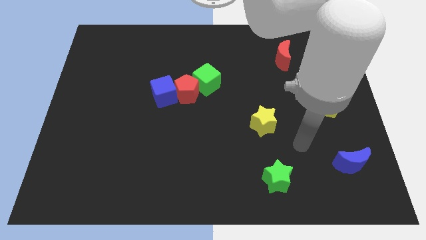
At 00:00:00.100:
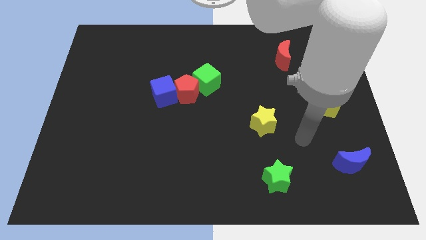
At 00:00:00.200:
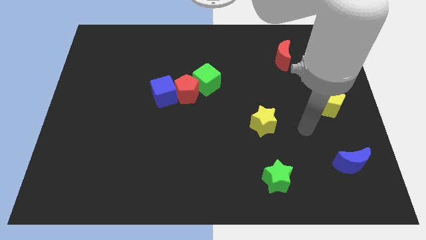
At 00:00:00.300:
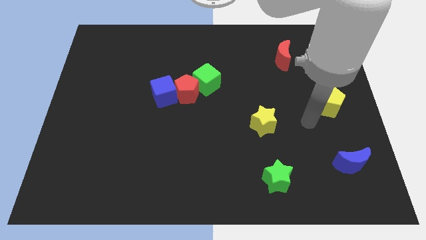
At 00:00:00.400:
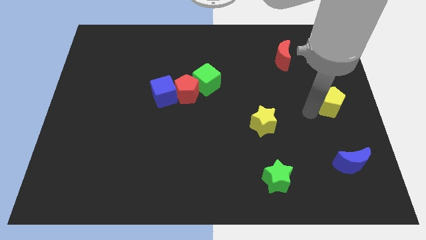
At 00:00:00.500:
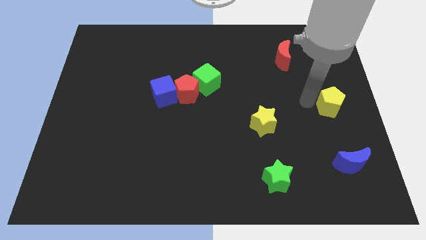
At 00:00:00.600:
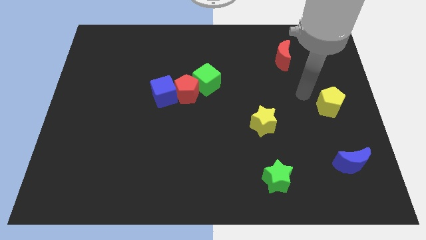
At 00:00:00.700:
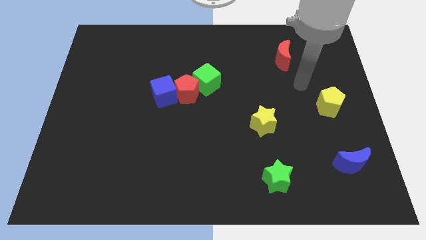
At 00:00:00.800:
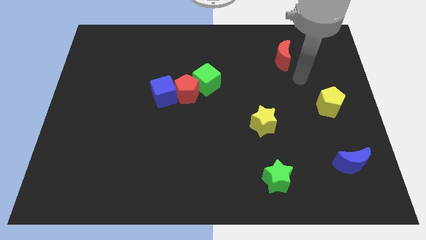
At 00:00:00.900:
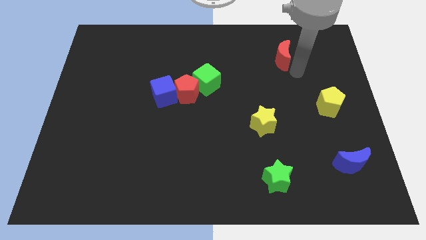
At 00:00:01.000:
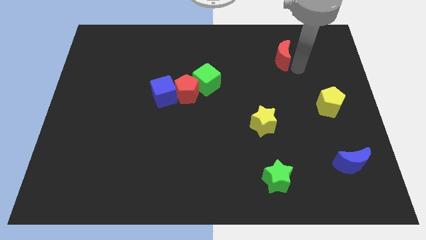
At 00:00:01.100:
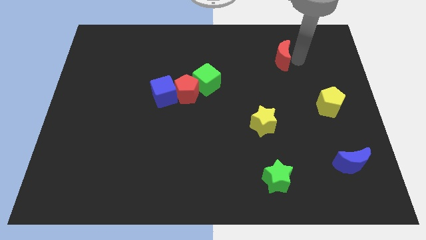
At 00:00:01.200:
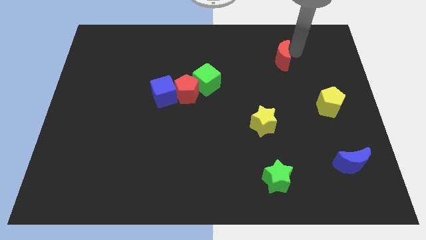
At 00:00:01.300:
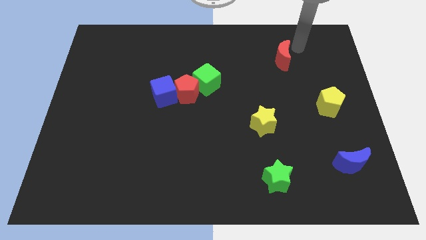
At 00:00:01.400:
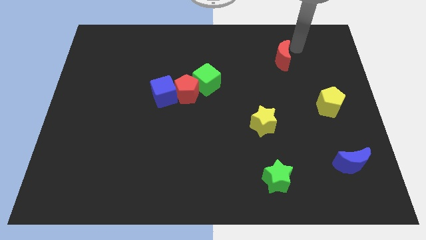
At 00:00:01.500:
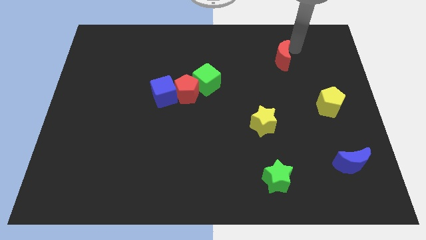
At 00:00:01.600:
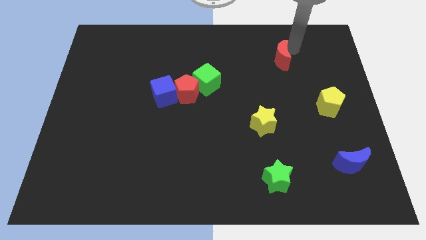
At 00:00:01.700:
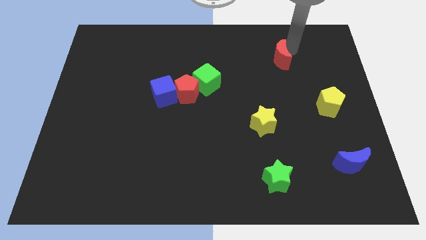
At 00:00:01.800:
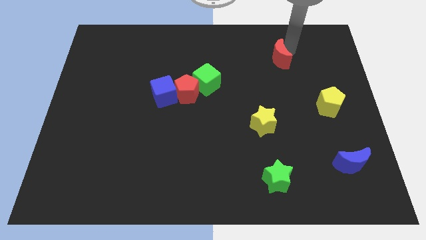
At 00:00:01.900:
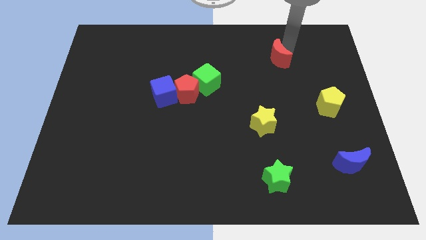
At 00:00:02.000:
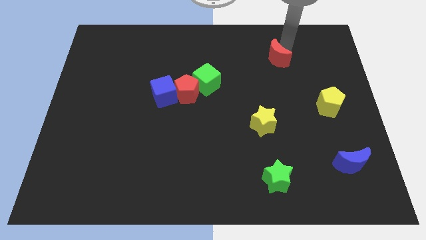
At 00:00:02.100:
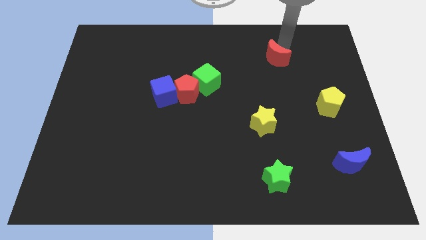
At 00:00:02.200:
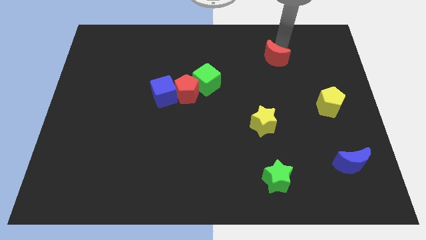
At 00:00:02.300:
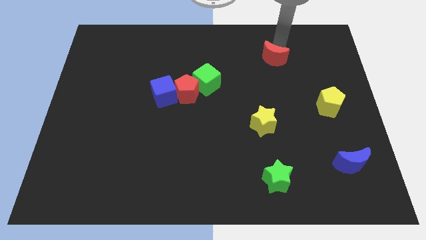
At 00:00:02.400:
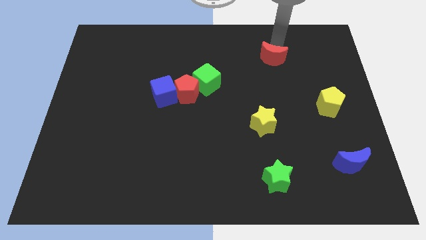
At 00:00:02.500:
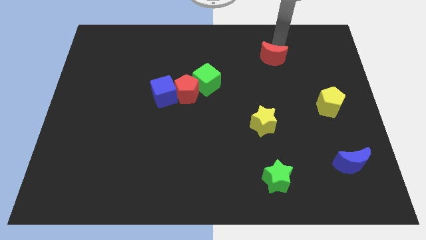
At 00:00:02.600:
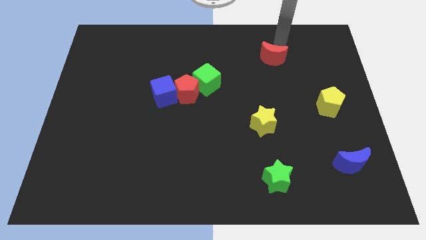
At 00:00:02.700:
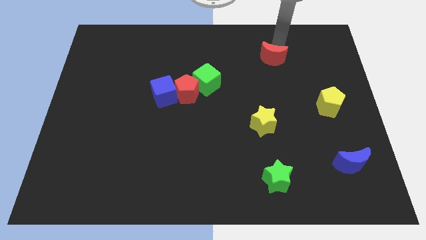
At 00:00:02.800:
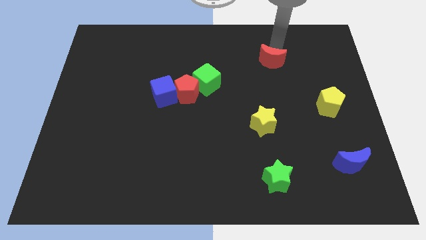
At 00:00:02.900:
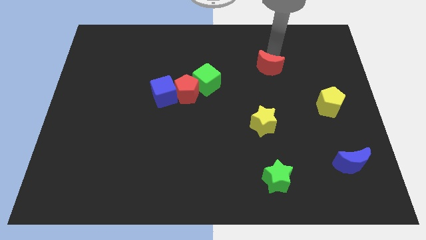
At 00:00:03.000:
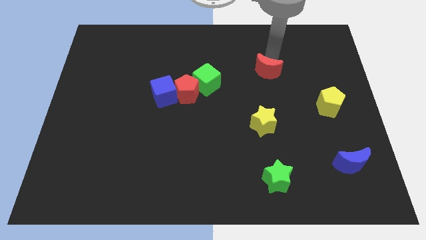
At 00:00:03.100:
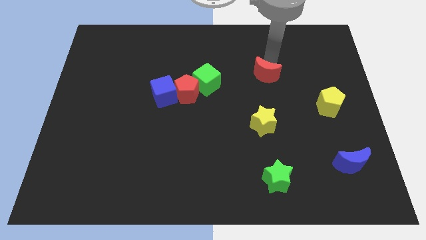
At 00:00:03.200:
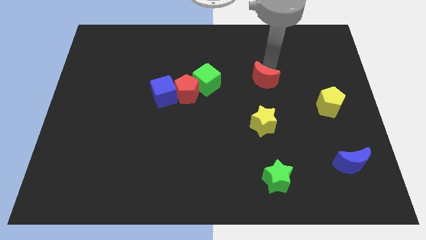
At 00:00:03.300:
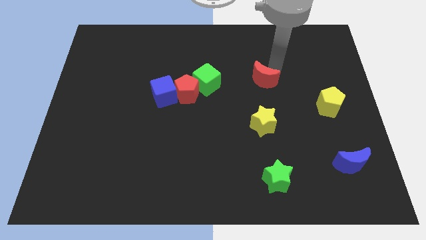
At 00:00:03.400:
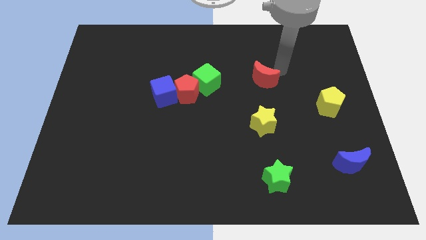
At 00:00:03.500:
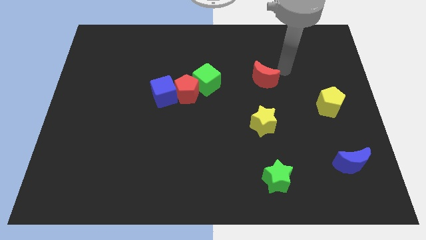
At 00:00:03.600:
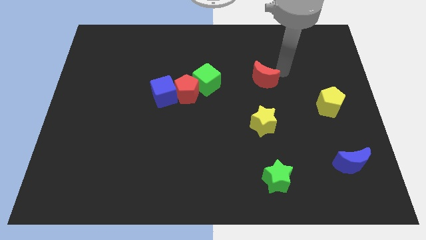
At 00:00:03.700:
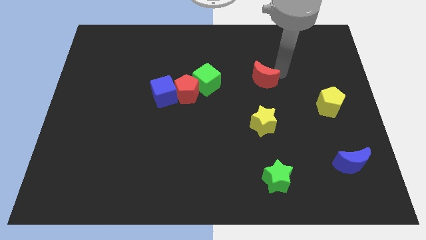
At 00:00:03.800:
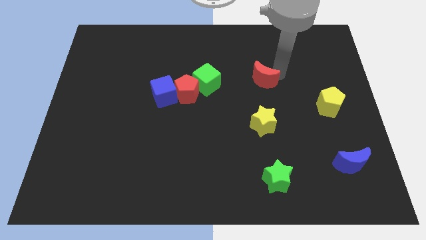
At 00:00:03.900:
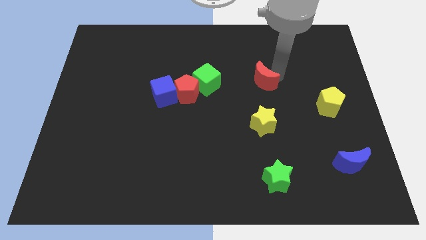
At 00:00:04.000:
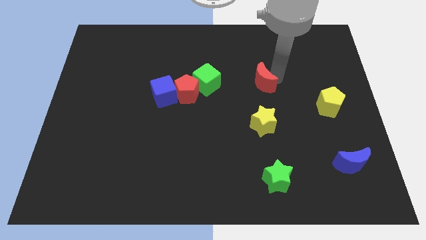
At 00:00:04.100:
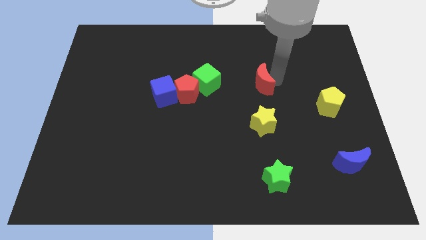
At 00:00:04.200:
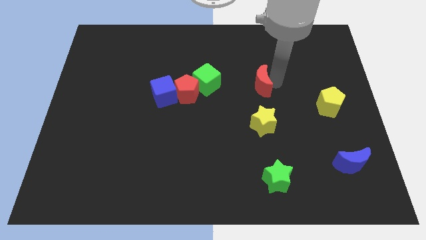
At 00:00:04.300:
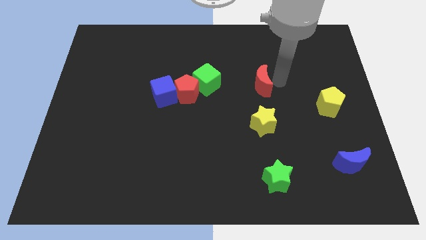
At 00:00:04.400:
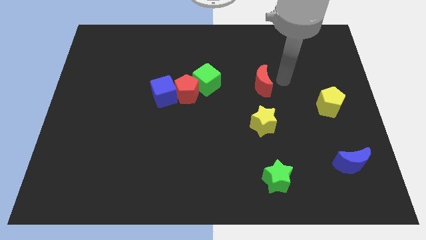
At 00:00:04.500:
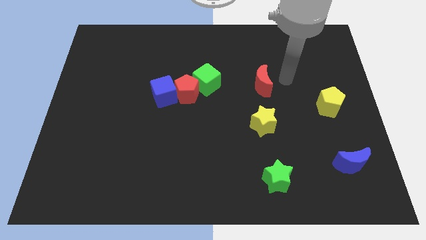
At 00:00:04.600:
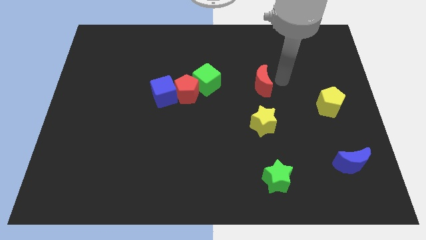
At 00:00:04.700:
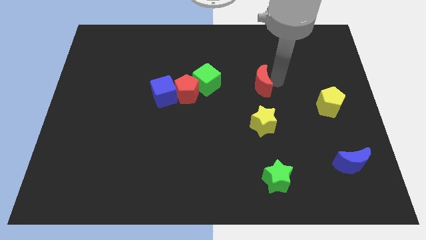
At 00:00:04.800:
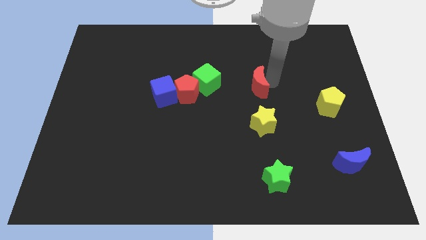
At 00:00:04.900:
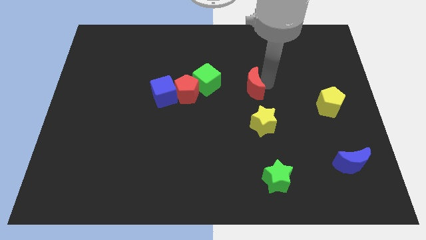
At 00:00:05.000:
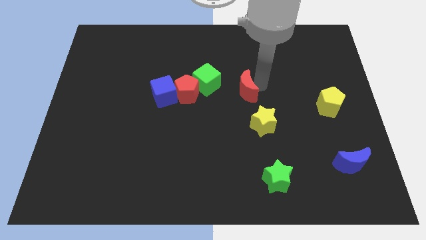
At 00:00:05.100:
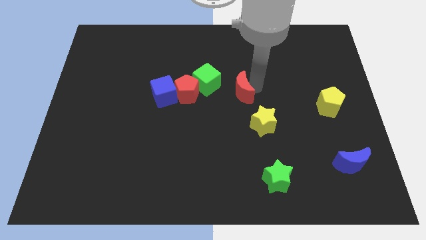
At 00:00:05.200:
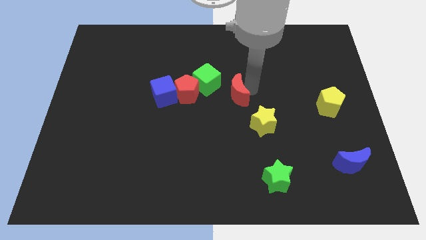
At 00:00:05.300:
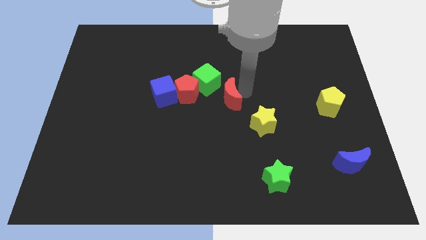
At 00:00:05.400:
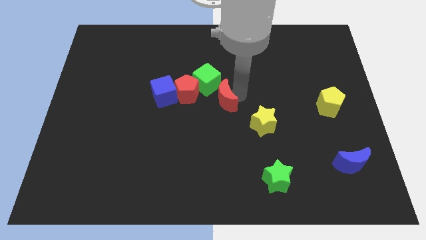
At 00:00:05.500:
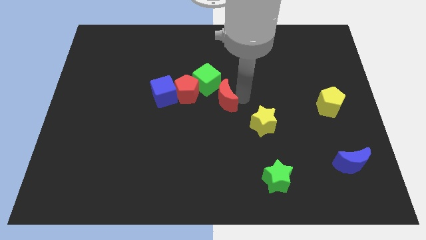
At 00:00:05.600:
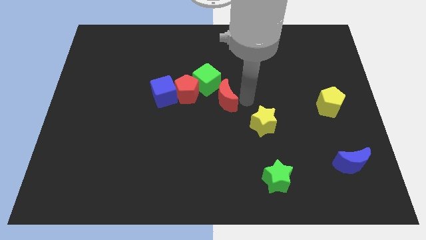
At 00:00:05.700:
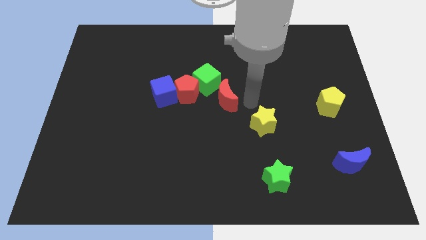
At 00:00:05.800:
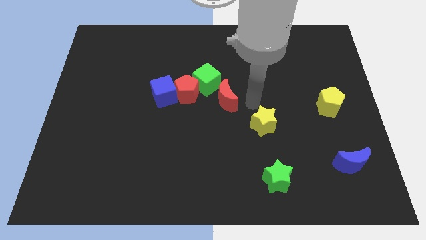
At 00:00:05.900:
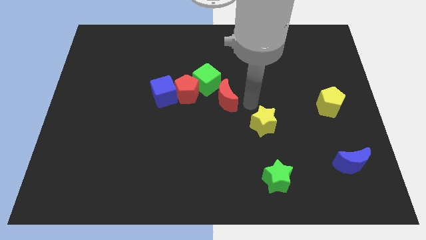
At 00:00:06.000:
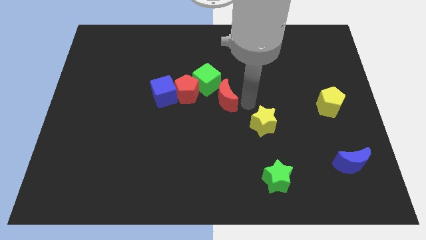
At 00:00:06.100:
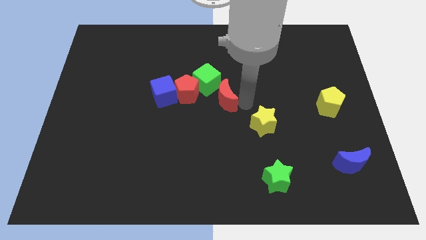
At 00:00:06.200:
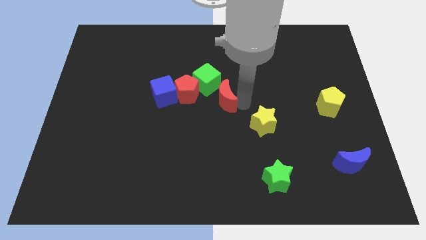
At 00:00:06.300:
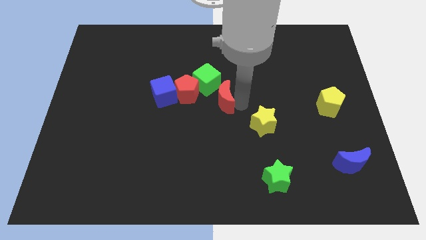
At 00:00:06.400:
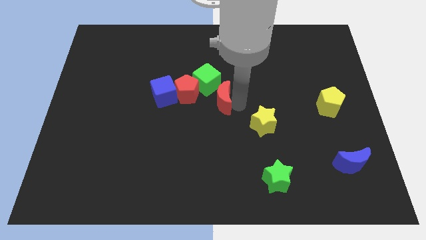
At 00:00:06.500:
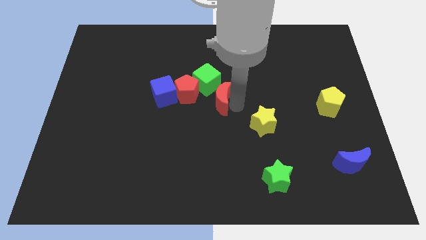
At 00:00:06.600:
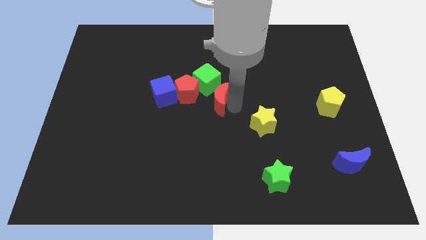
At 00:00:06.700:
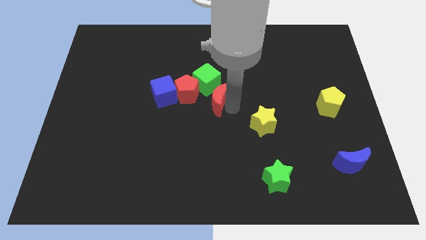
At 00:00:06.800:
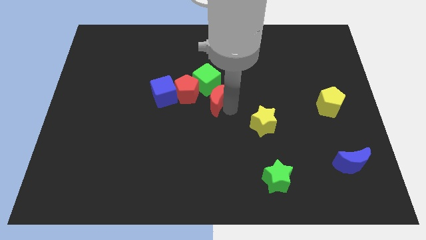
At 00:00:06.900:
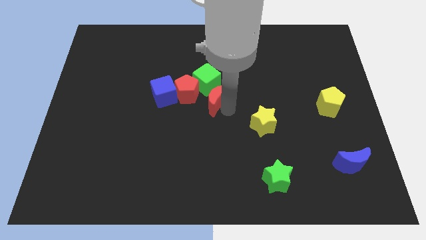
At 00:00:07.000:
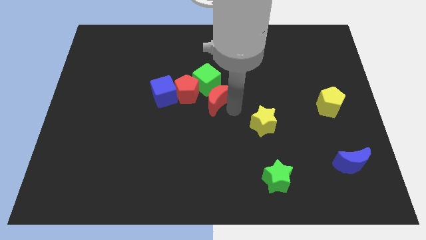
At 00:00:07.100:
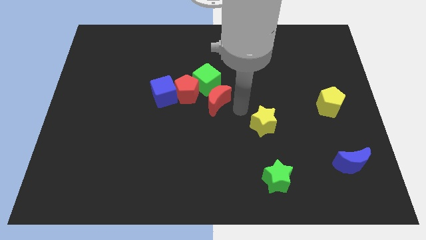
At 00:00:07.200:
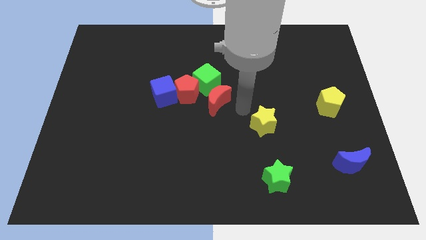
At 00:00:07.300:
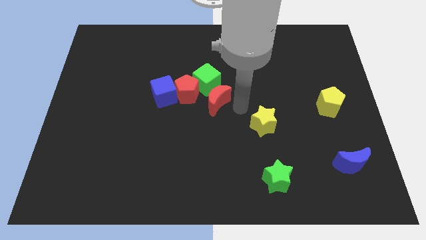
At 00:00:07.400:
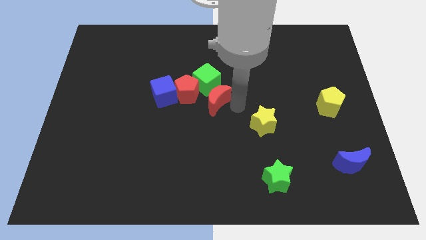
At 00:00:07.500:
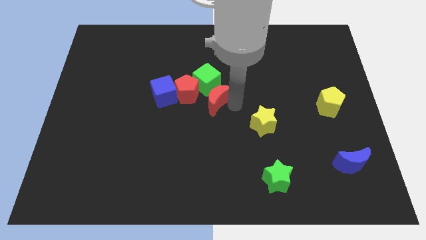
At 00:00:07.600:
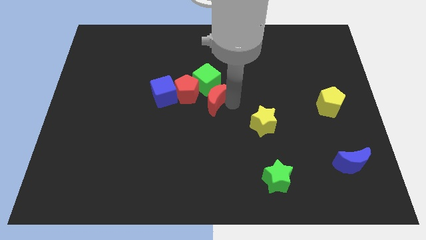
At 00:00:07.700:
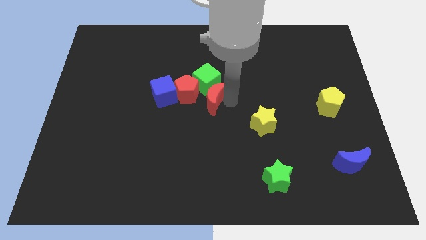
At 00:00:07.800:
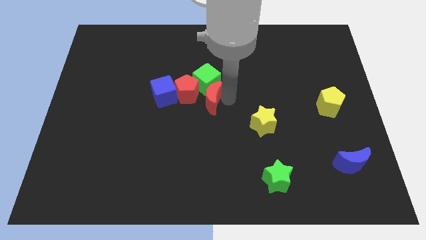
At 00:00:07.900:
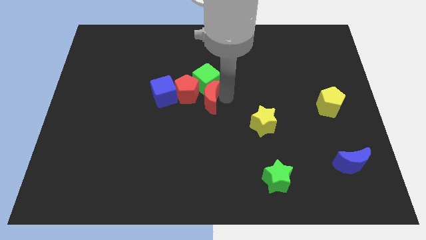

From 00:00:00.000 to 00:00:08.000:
push the red moon next to the red pentagon

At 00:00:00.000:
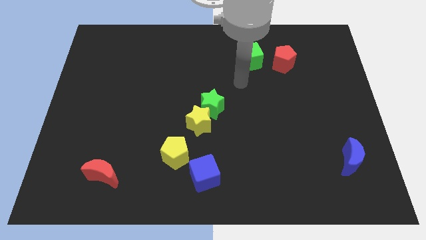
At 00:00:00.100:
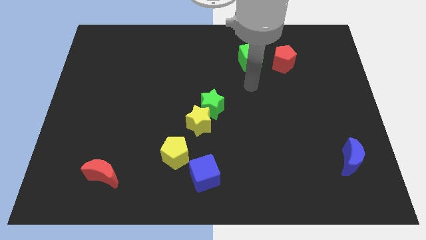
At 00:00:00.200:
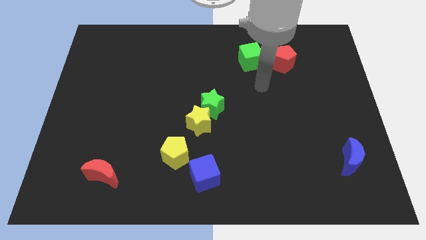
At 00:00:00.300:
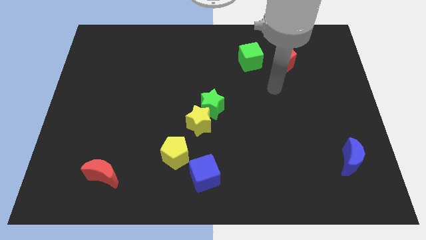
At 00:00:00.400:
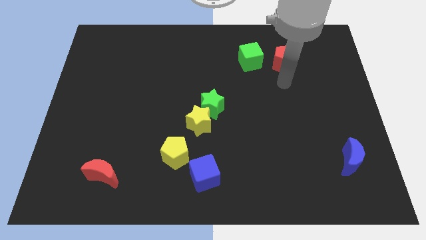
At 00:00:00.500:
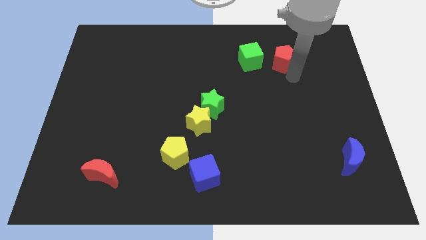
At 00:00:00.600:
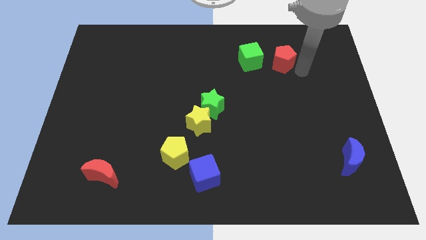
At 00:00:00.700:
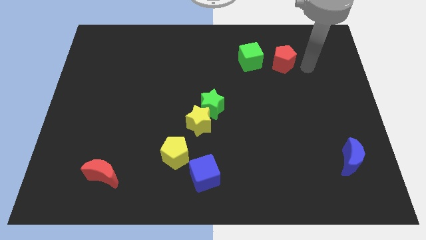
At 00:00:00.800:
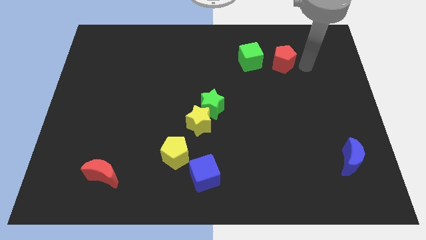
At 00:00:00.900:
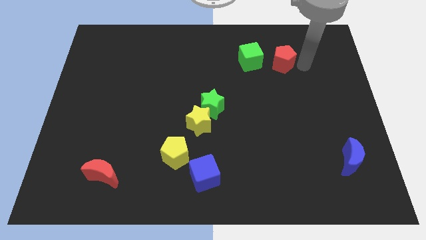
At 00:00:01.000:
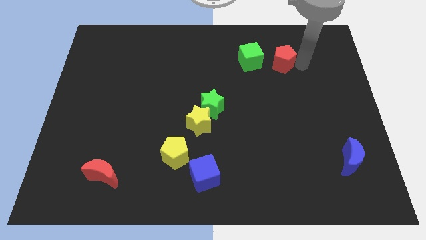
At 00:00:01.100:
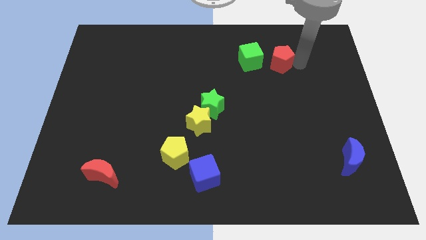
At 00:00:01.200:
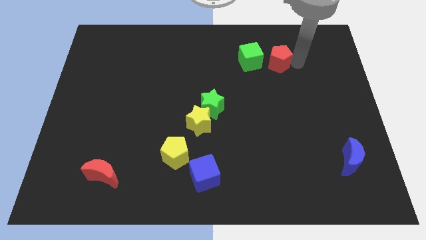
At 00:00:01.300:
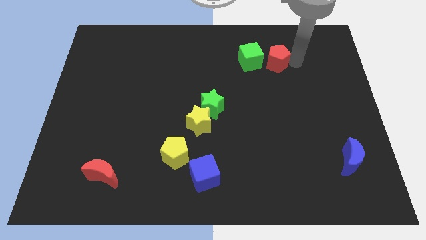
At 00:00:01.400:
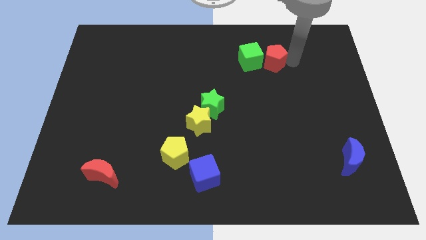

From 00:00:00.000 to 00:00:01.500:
put the red pentagon close to the green cube
